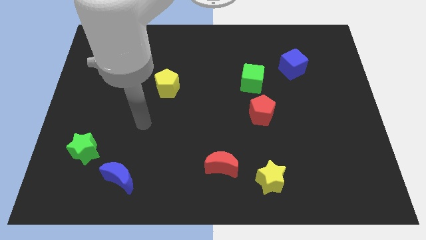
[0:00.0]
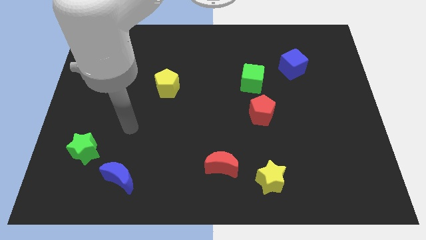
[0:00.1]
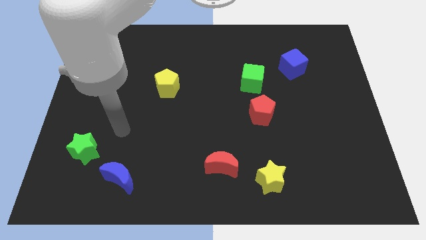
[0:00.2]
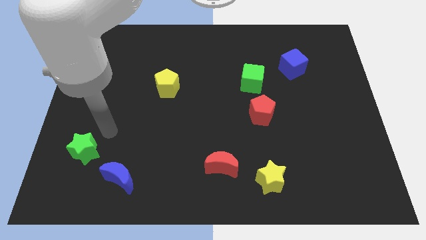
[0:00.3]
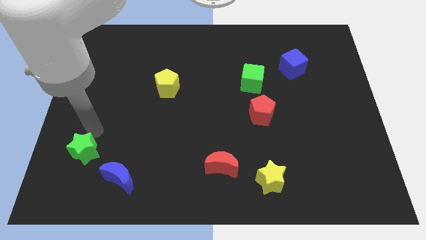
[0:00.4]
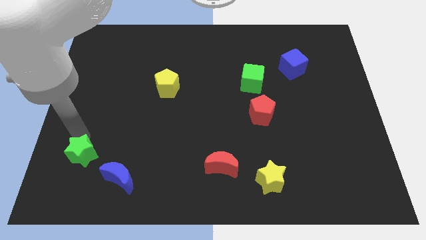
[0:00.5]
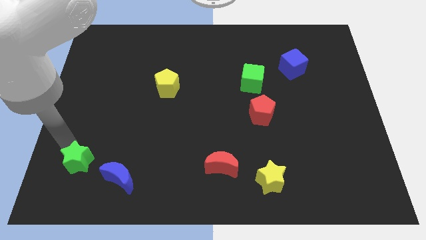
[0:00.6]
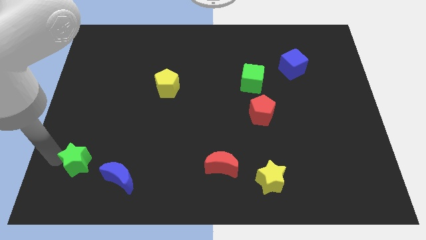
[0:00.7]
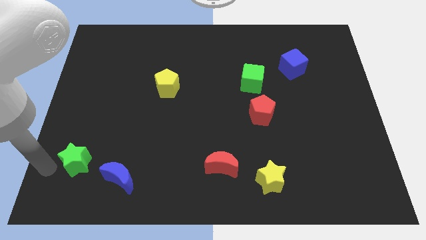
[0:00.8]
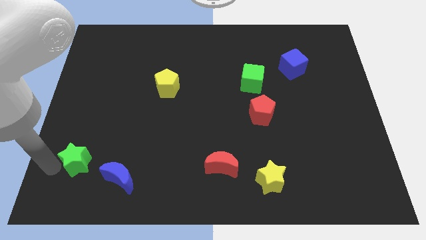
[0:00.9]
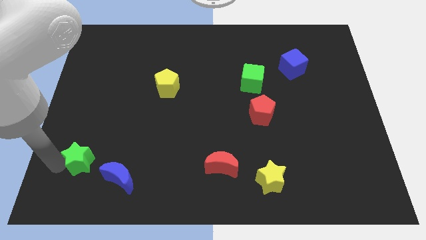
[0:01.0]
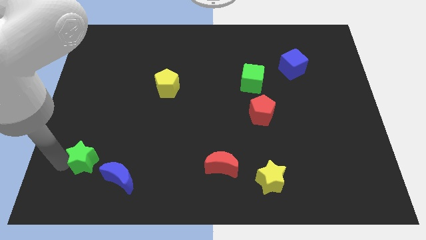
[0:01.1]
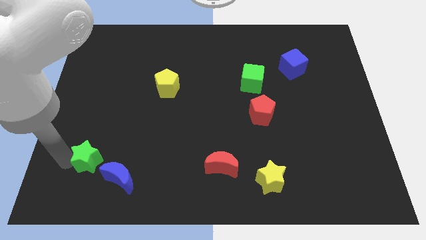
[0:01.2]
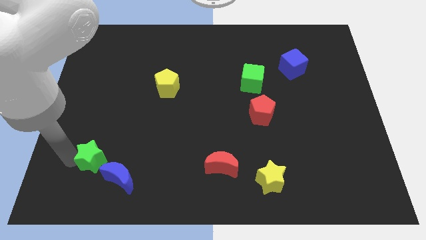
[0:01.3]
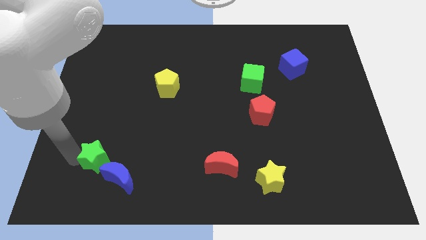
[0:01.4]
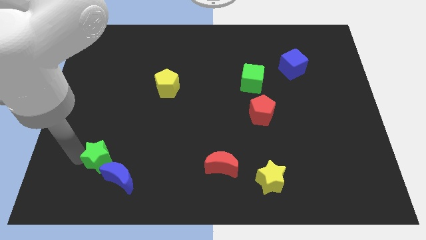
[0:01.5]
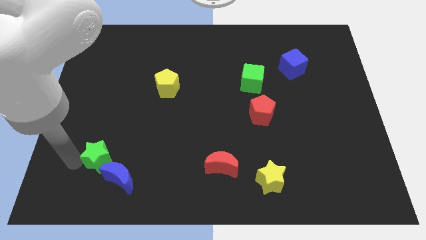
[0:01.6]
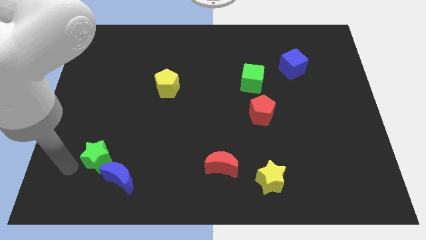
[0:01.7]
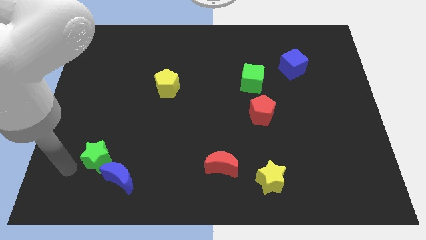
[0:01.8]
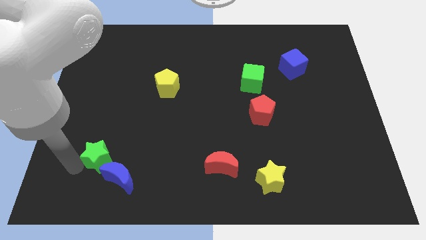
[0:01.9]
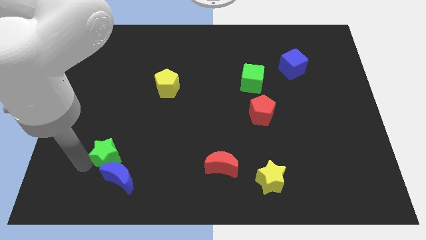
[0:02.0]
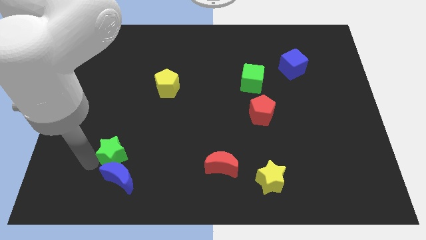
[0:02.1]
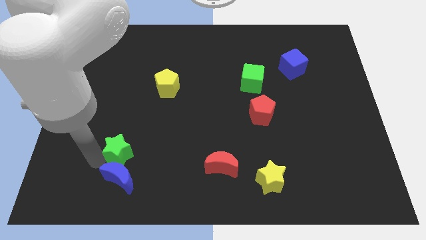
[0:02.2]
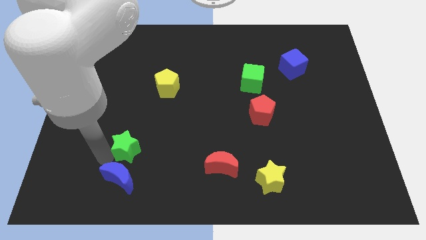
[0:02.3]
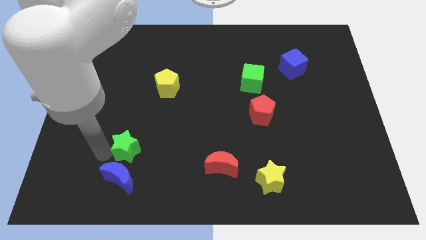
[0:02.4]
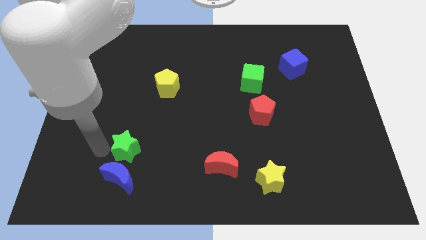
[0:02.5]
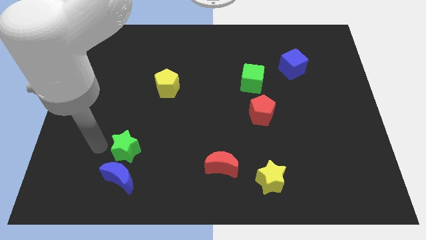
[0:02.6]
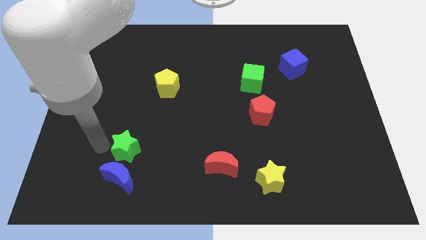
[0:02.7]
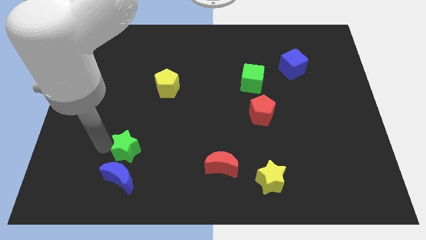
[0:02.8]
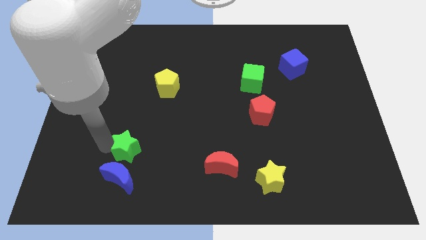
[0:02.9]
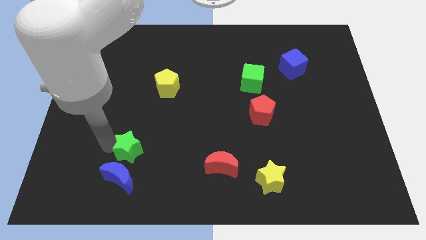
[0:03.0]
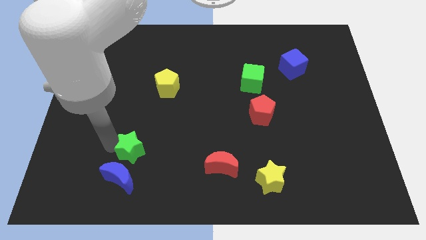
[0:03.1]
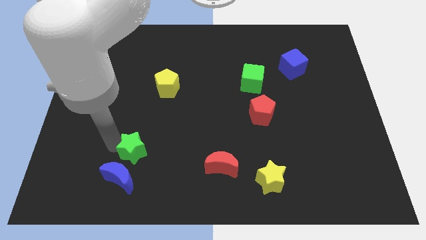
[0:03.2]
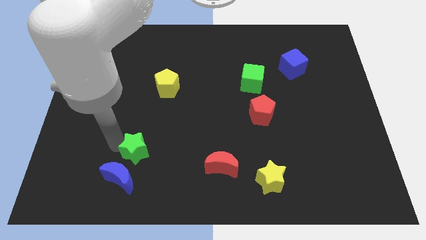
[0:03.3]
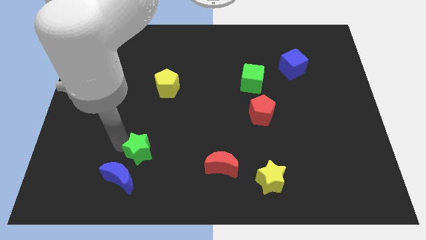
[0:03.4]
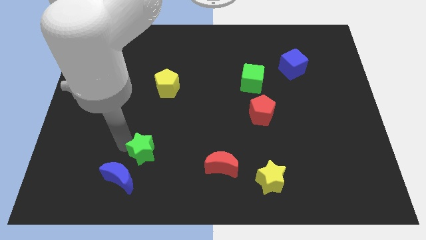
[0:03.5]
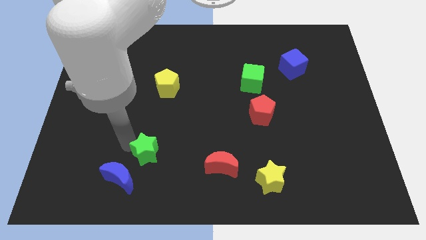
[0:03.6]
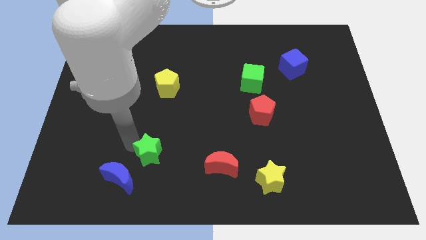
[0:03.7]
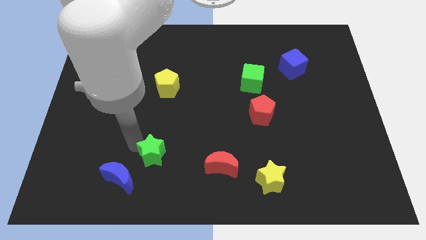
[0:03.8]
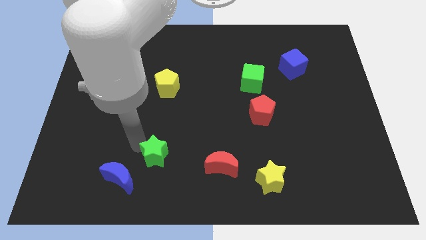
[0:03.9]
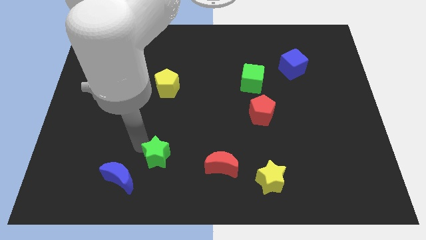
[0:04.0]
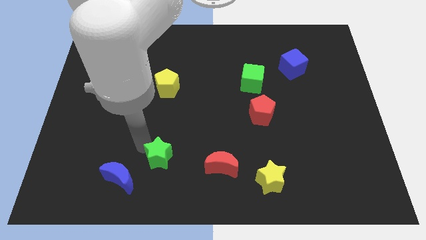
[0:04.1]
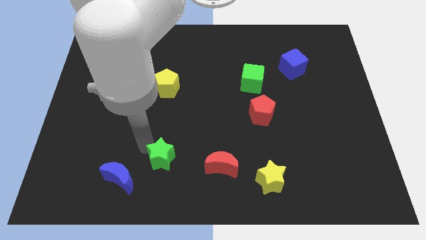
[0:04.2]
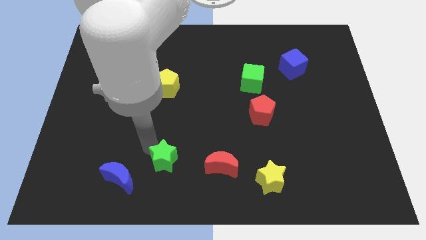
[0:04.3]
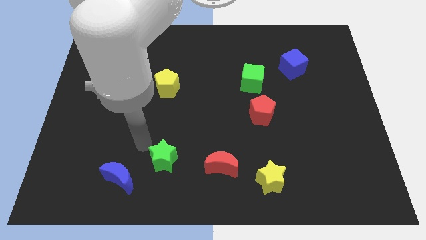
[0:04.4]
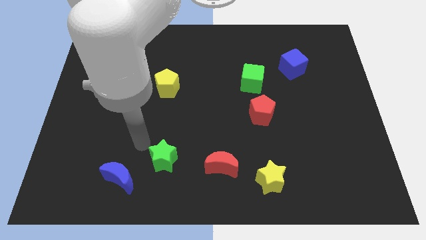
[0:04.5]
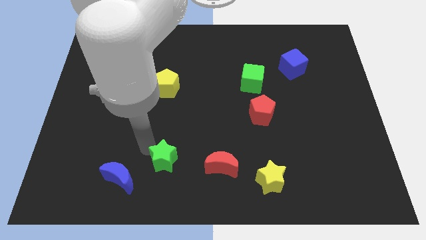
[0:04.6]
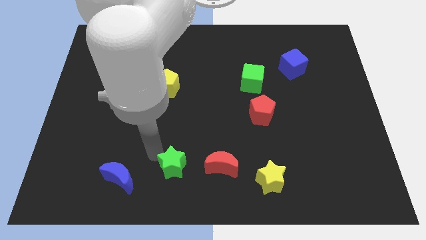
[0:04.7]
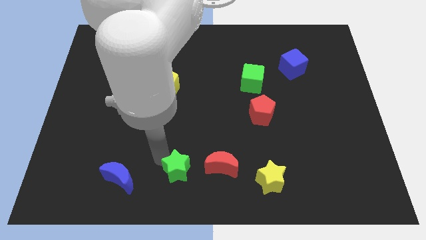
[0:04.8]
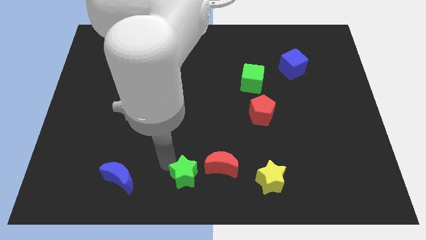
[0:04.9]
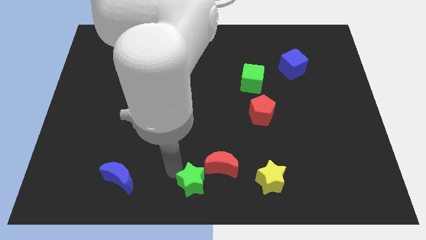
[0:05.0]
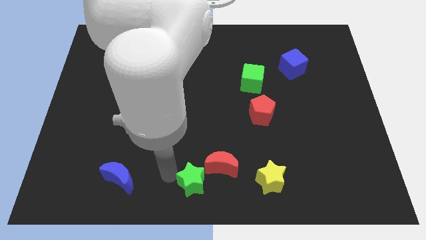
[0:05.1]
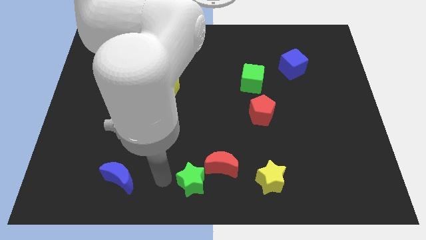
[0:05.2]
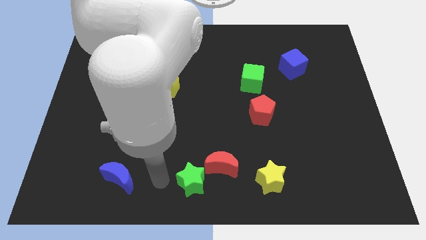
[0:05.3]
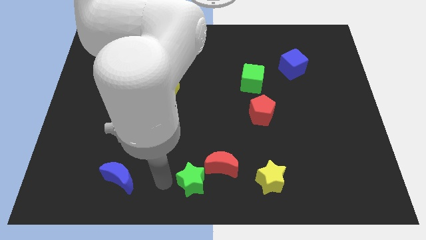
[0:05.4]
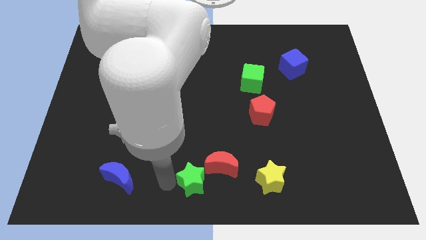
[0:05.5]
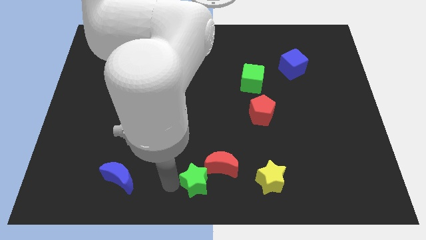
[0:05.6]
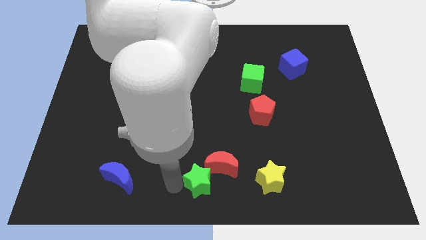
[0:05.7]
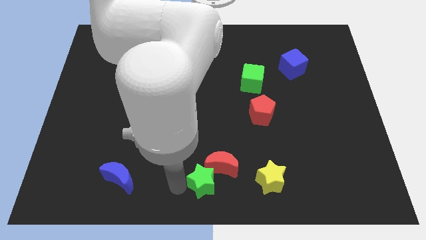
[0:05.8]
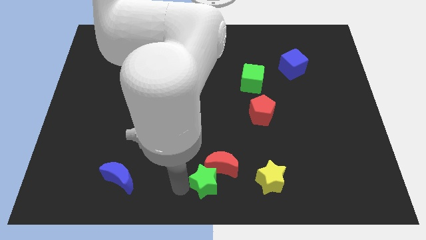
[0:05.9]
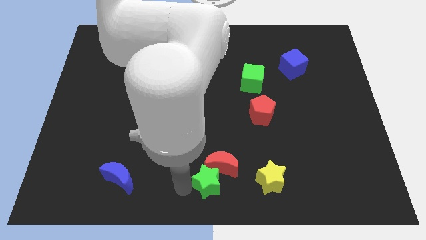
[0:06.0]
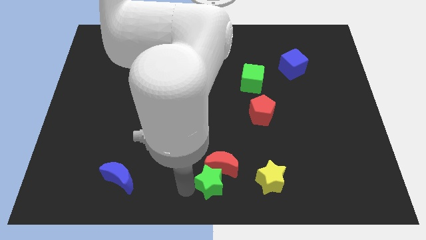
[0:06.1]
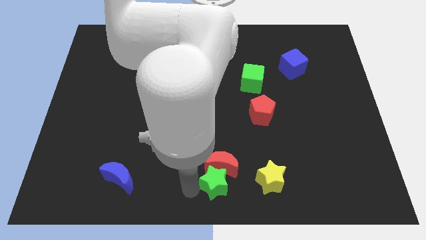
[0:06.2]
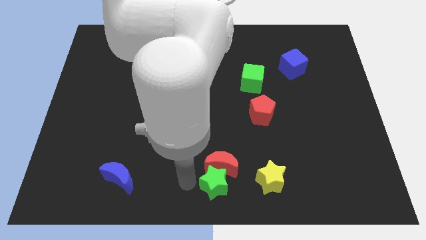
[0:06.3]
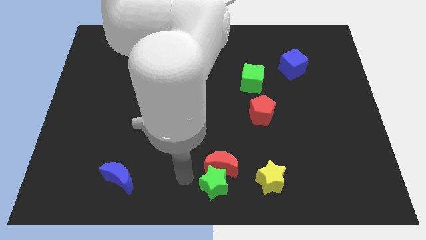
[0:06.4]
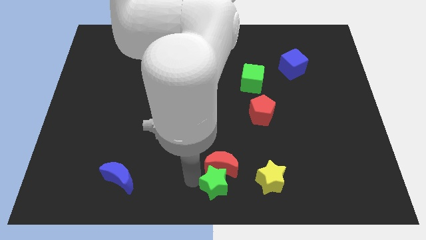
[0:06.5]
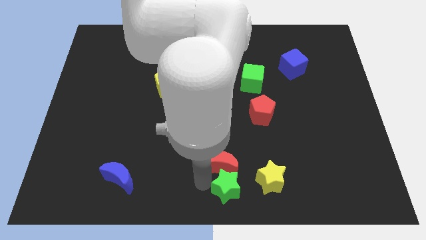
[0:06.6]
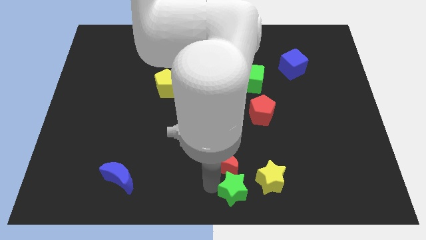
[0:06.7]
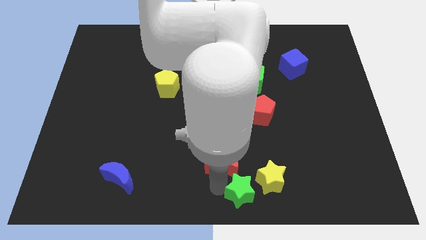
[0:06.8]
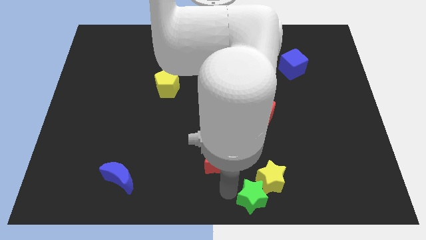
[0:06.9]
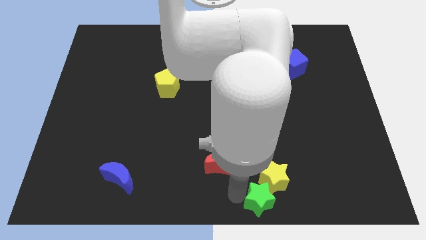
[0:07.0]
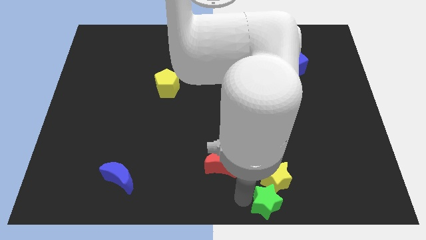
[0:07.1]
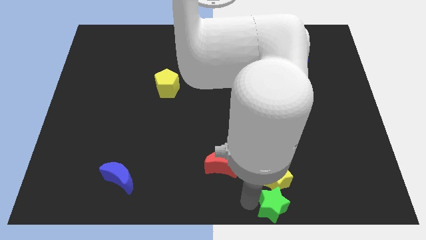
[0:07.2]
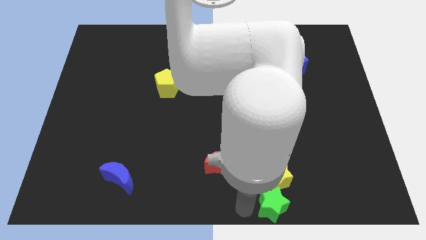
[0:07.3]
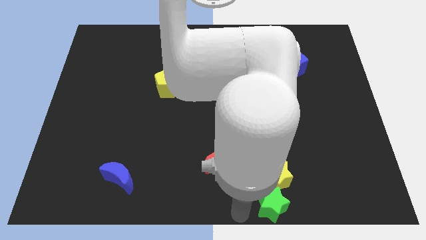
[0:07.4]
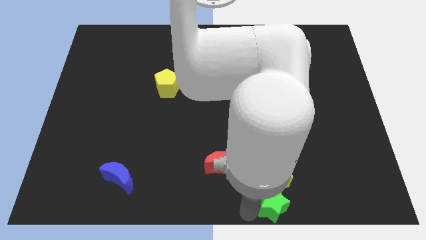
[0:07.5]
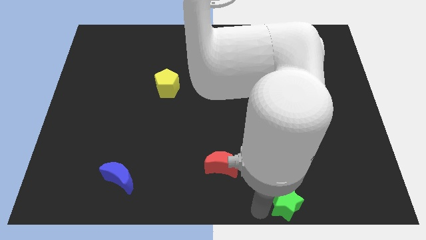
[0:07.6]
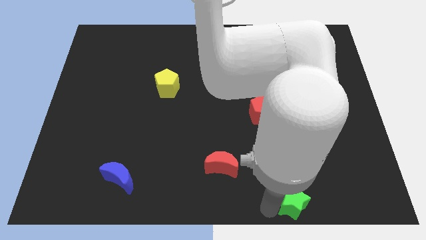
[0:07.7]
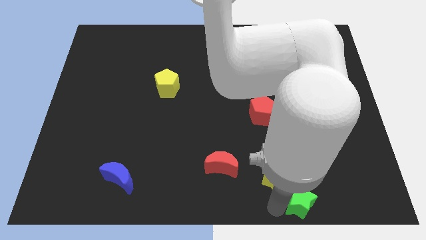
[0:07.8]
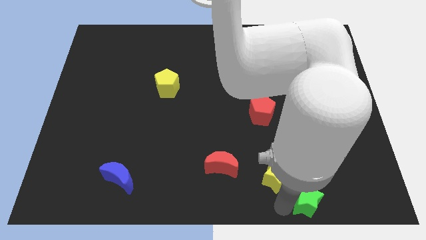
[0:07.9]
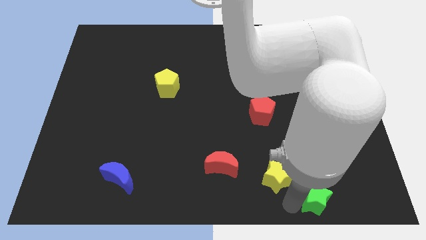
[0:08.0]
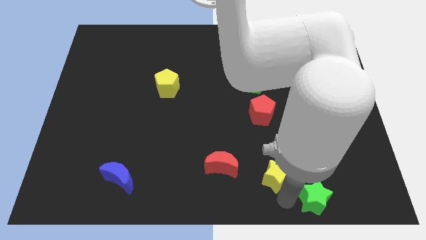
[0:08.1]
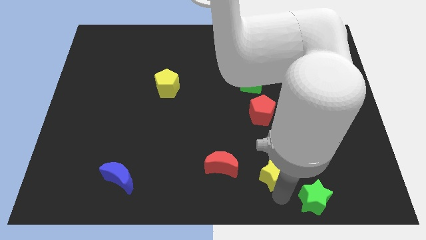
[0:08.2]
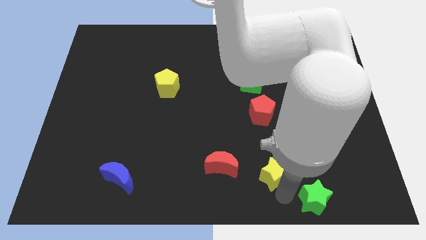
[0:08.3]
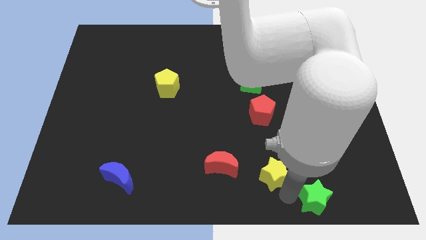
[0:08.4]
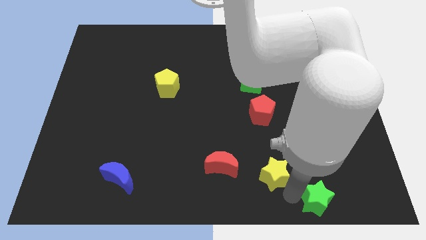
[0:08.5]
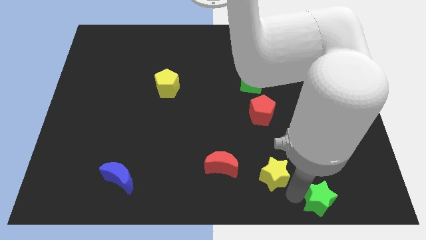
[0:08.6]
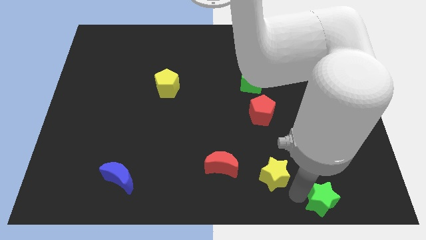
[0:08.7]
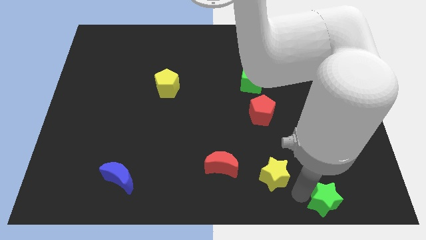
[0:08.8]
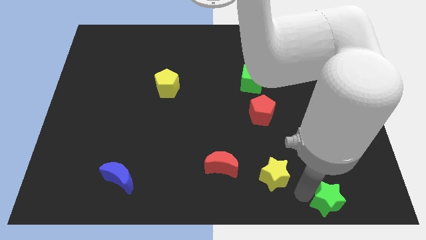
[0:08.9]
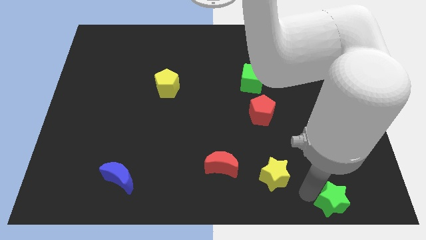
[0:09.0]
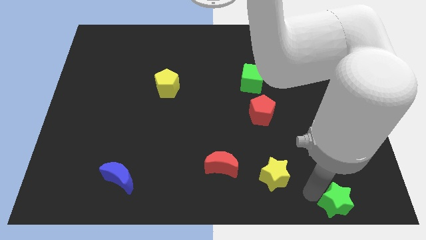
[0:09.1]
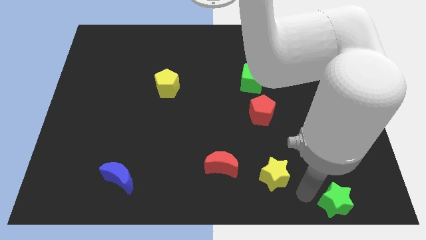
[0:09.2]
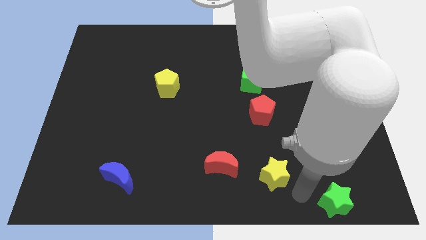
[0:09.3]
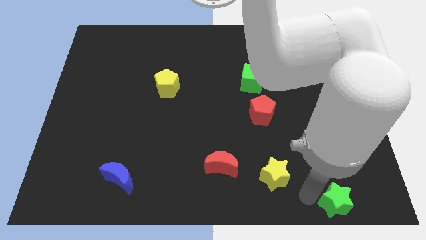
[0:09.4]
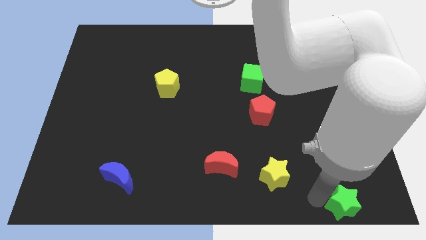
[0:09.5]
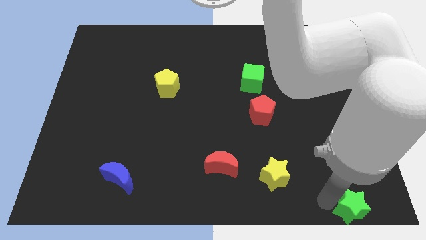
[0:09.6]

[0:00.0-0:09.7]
move the green star to the bottom right
